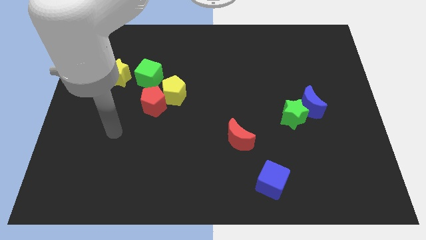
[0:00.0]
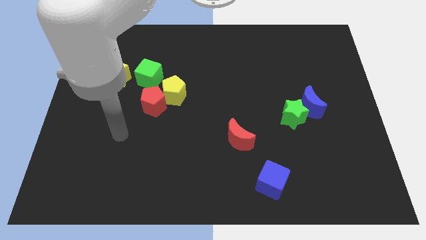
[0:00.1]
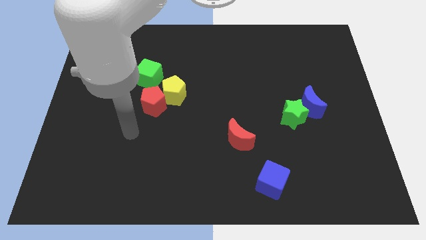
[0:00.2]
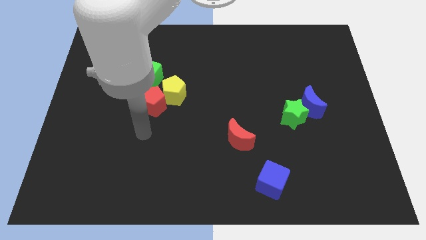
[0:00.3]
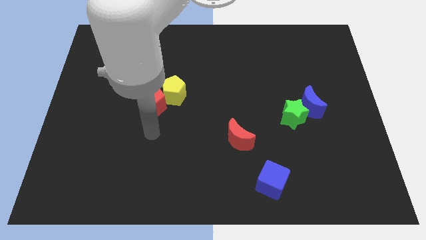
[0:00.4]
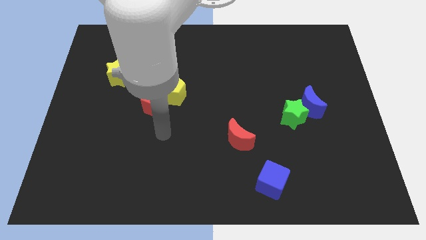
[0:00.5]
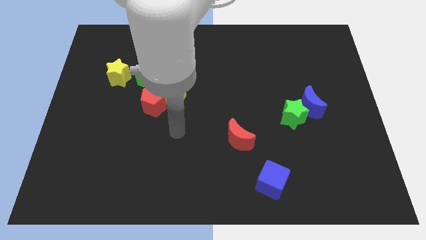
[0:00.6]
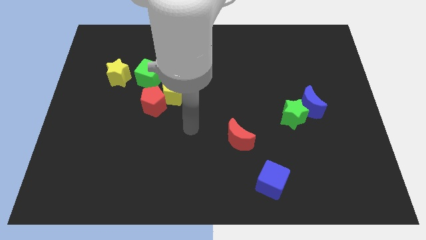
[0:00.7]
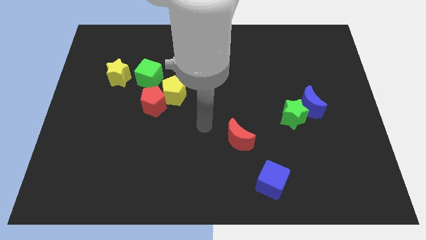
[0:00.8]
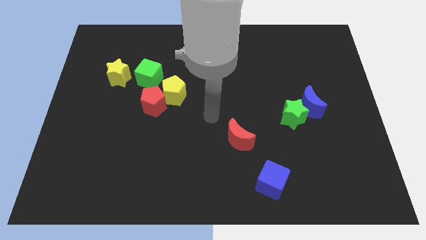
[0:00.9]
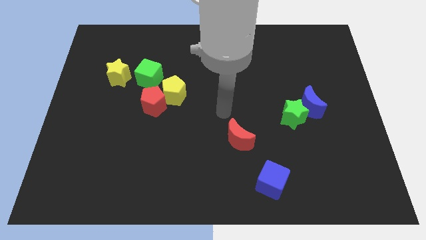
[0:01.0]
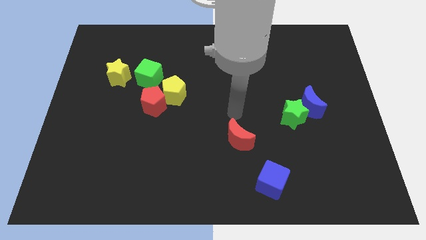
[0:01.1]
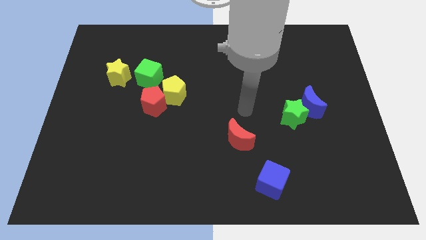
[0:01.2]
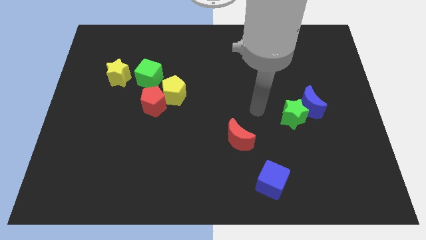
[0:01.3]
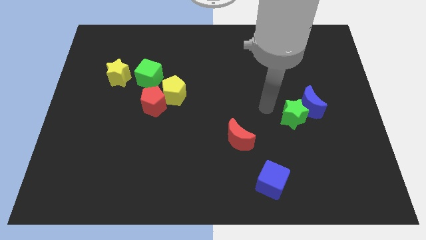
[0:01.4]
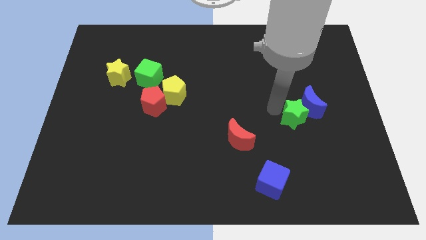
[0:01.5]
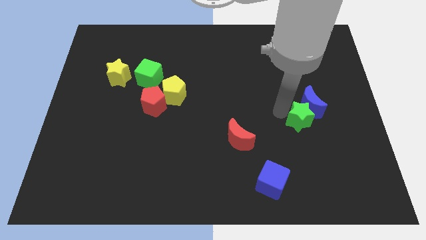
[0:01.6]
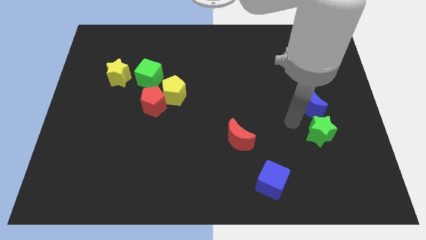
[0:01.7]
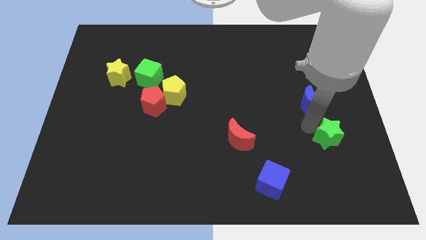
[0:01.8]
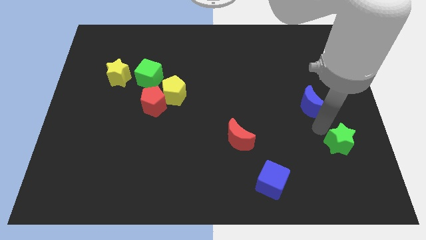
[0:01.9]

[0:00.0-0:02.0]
move the blue moon away from the green star

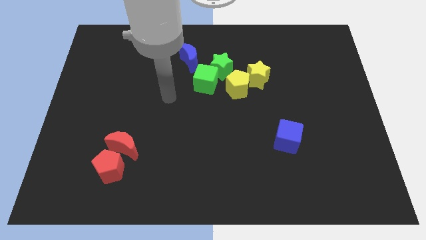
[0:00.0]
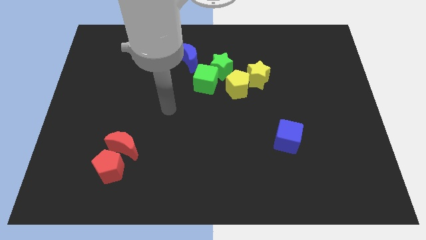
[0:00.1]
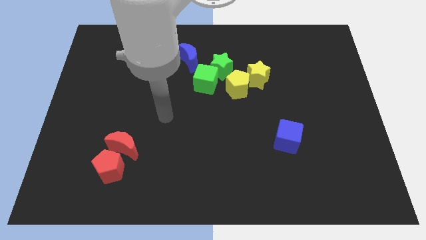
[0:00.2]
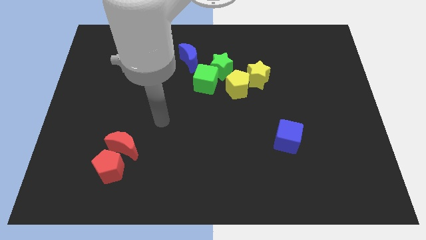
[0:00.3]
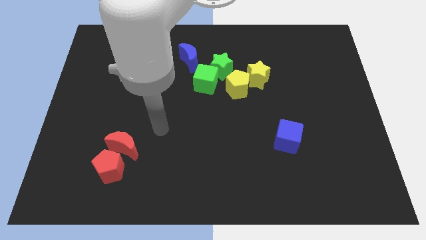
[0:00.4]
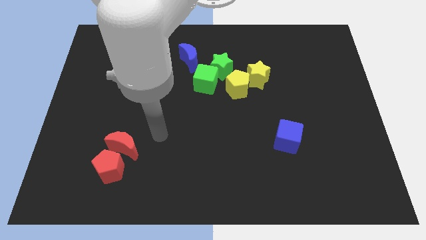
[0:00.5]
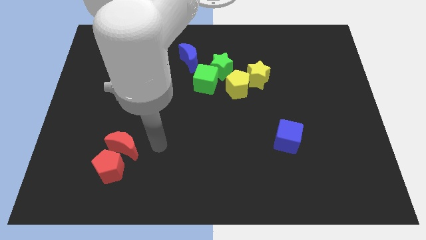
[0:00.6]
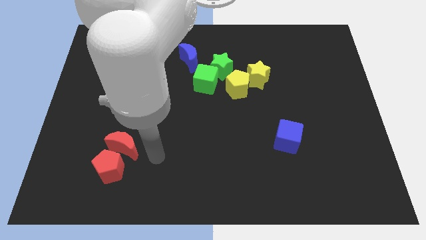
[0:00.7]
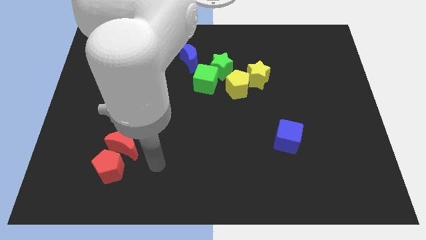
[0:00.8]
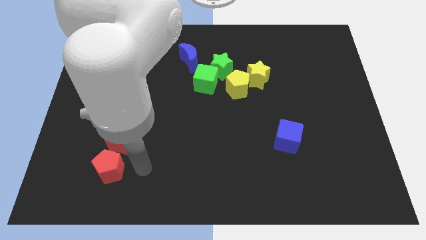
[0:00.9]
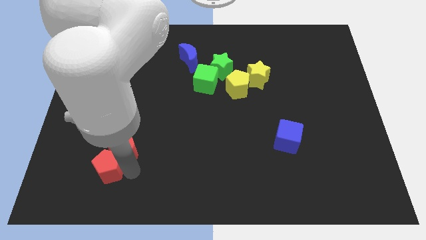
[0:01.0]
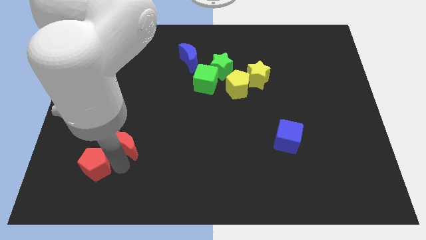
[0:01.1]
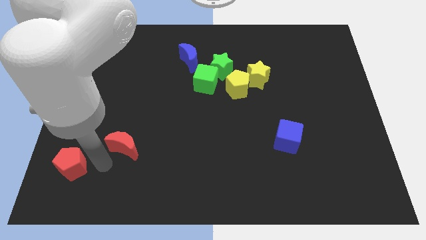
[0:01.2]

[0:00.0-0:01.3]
separate the red moon from the red pentagon

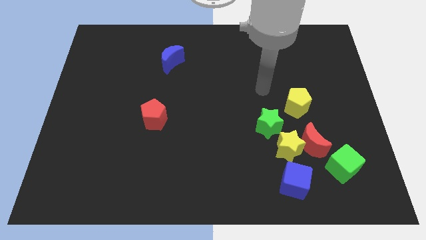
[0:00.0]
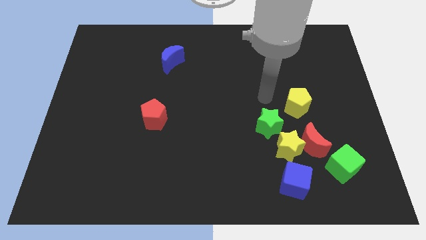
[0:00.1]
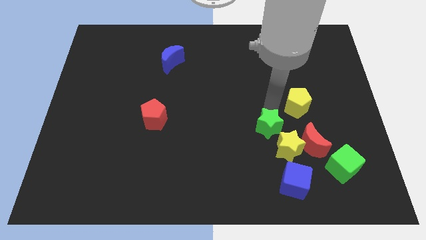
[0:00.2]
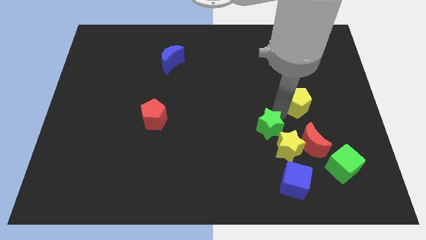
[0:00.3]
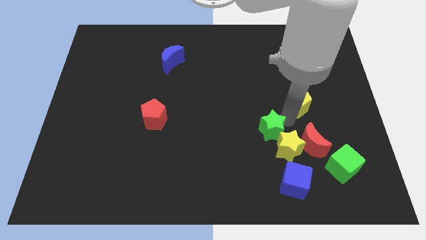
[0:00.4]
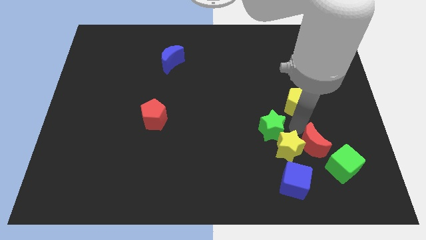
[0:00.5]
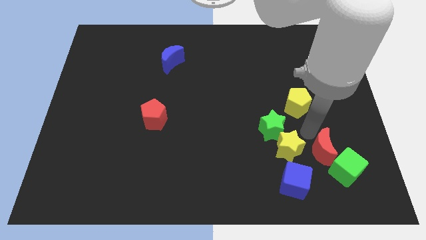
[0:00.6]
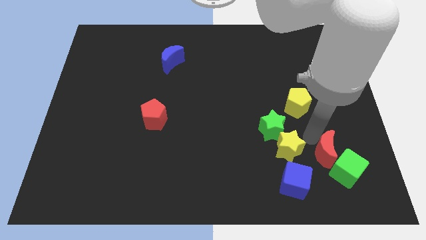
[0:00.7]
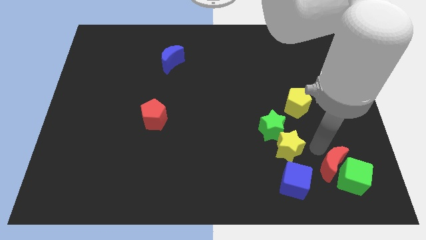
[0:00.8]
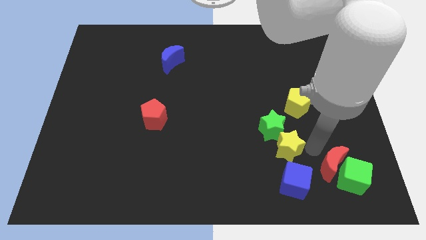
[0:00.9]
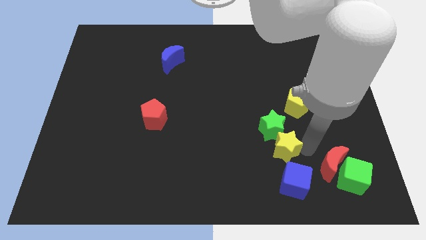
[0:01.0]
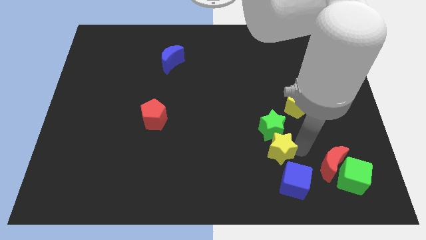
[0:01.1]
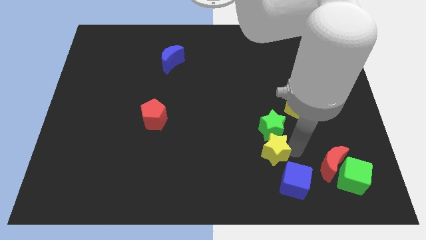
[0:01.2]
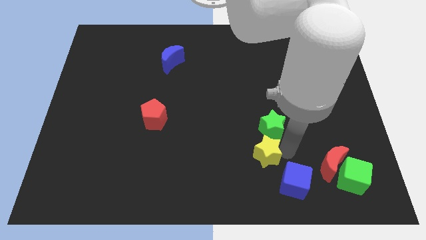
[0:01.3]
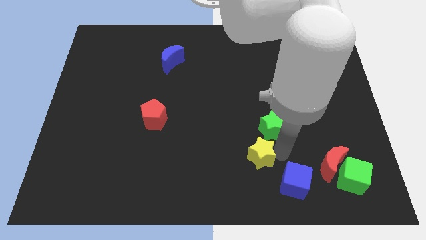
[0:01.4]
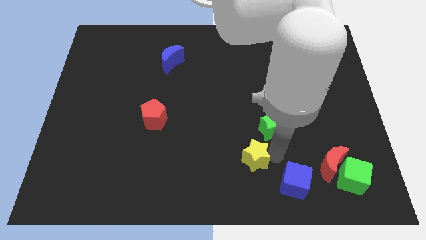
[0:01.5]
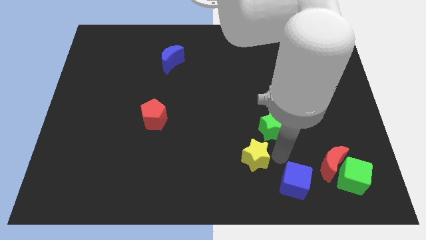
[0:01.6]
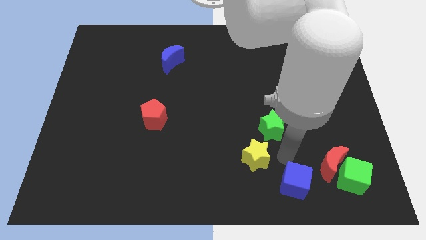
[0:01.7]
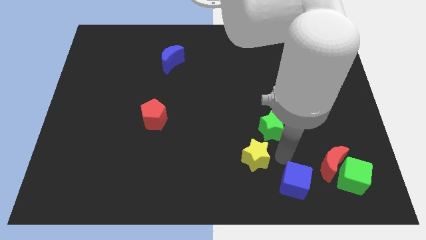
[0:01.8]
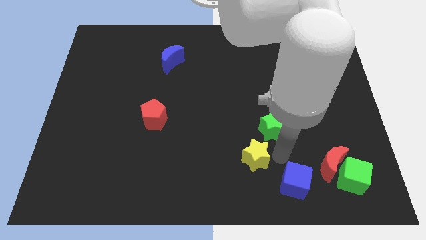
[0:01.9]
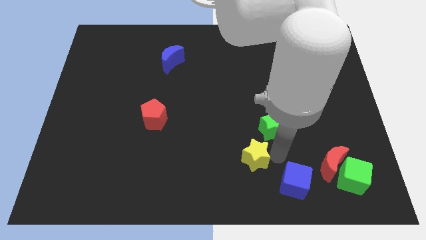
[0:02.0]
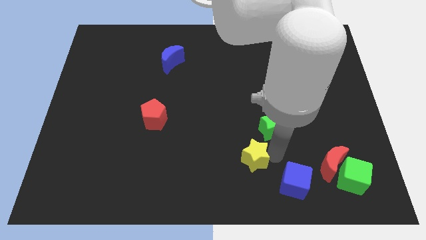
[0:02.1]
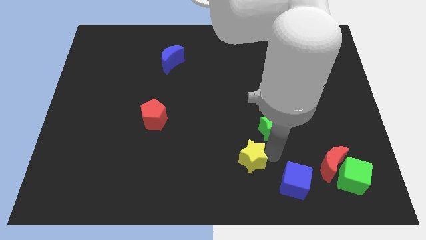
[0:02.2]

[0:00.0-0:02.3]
pull the yellow star apart from the group of blocks

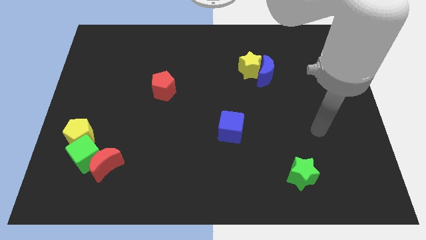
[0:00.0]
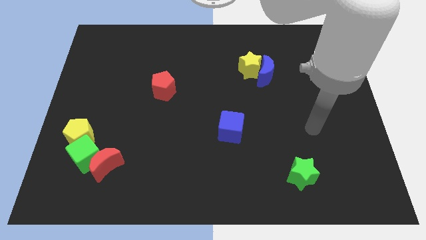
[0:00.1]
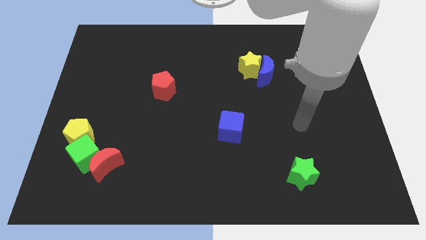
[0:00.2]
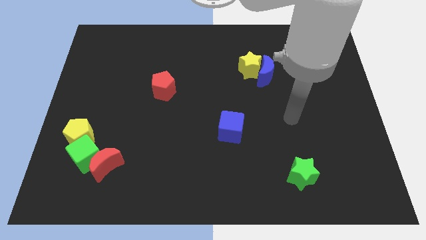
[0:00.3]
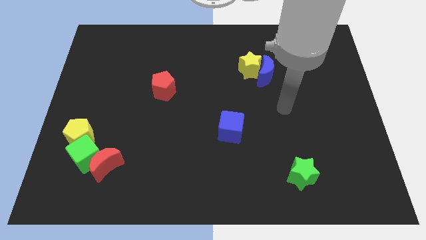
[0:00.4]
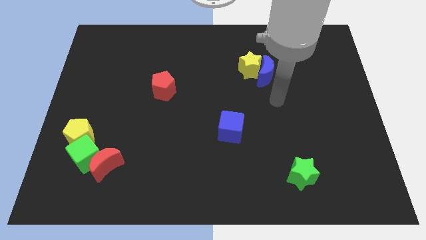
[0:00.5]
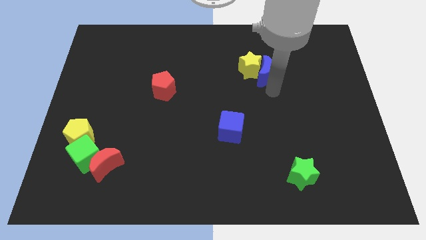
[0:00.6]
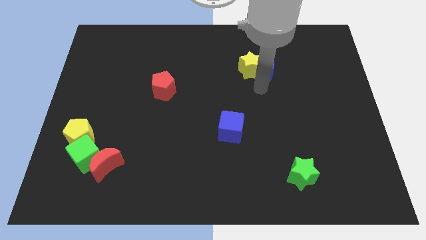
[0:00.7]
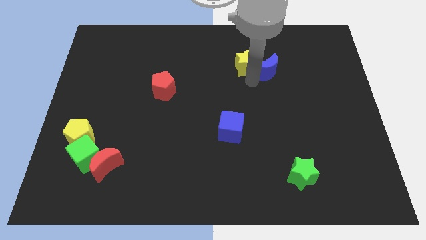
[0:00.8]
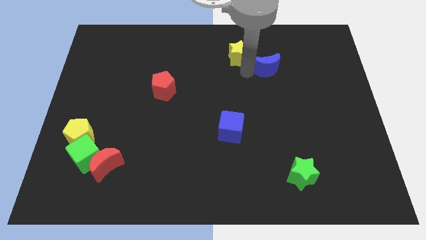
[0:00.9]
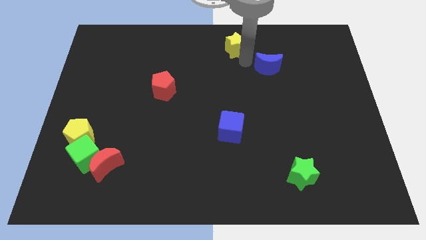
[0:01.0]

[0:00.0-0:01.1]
move the blue moon away from the yellow star

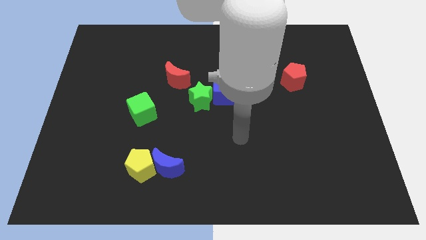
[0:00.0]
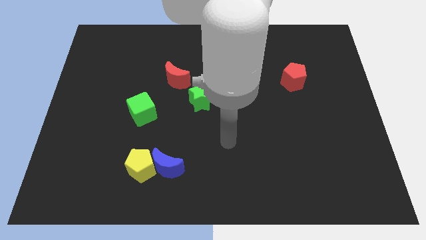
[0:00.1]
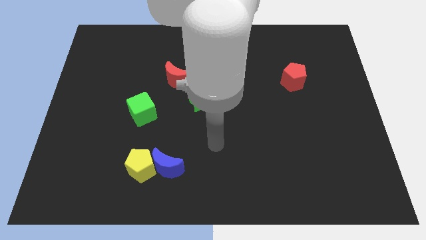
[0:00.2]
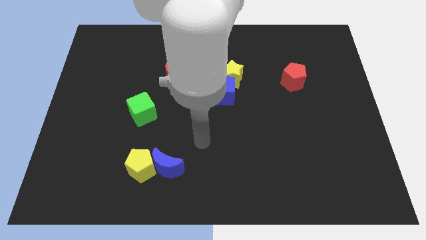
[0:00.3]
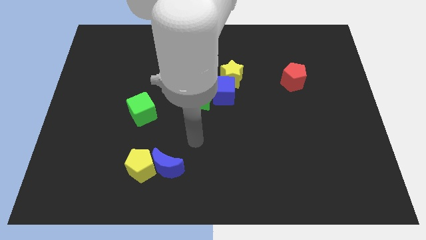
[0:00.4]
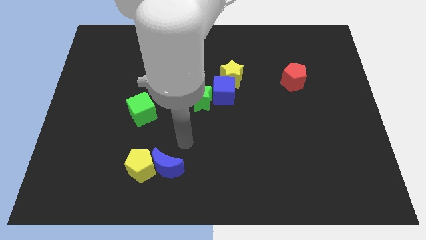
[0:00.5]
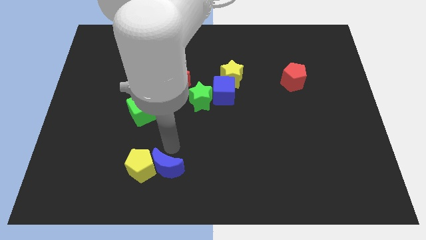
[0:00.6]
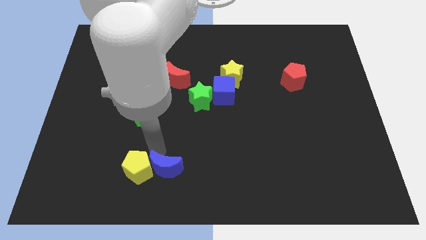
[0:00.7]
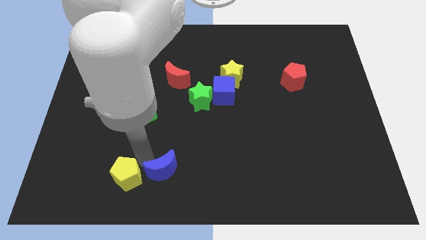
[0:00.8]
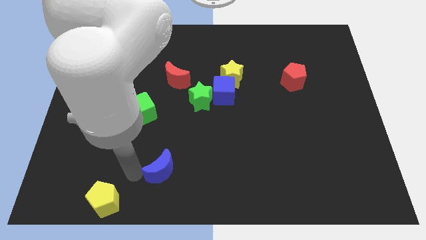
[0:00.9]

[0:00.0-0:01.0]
pull the blue moon apart from the yellow pentagon

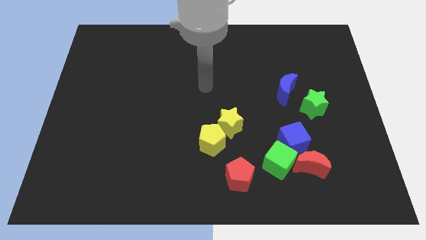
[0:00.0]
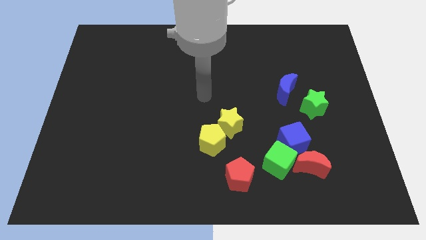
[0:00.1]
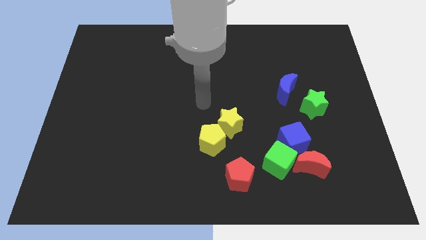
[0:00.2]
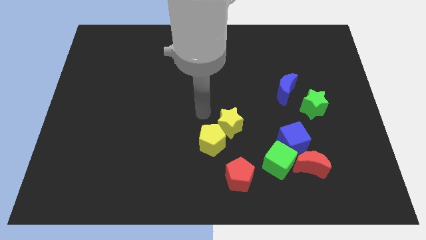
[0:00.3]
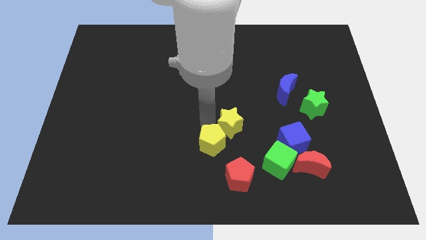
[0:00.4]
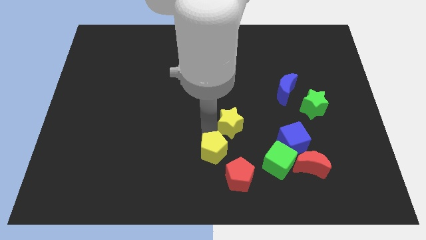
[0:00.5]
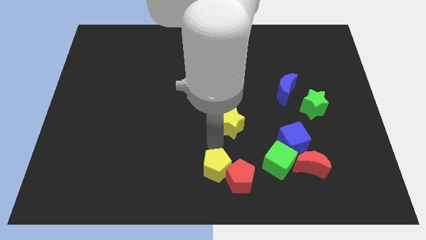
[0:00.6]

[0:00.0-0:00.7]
move the yellow star away from the yellow pentagon

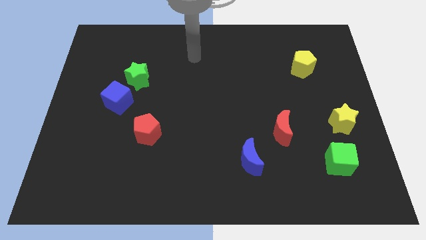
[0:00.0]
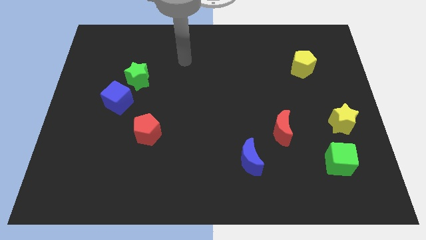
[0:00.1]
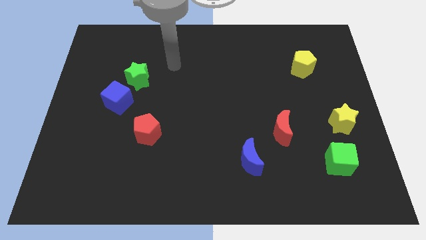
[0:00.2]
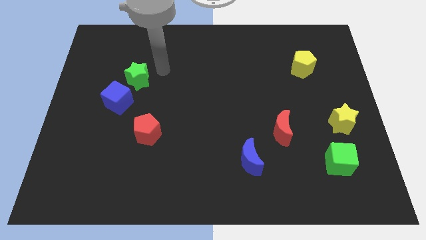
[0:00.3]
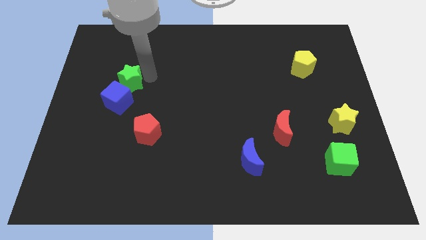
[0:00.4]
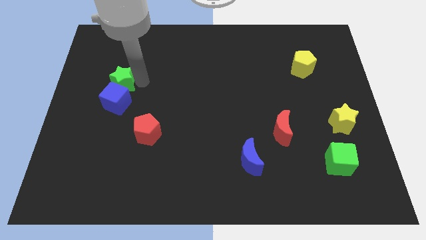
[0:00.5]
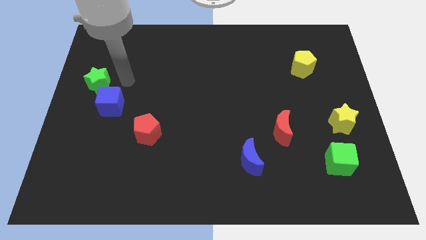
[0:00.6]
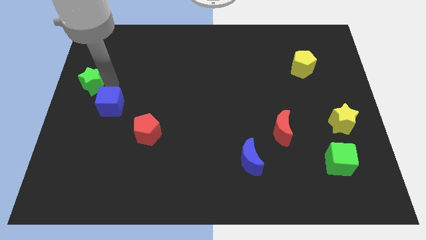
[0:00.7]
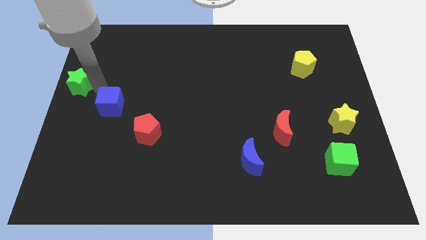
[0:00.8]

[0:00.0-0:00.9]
separate the blue cube from the green star
